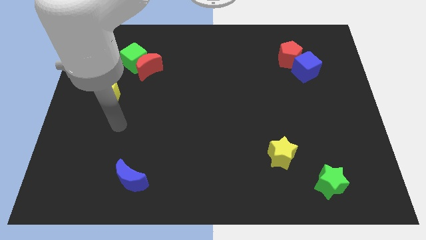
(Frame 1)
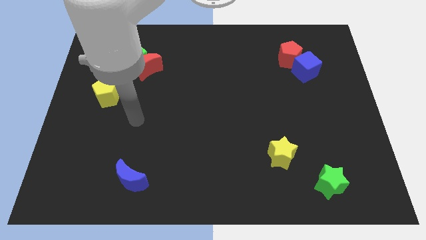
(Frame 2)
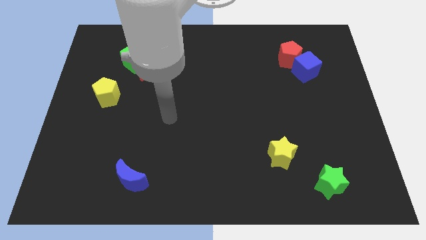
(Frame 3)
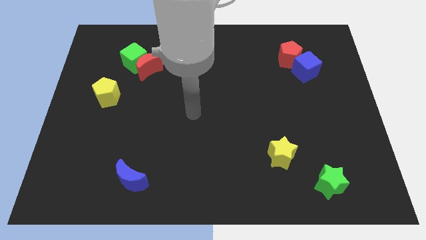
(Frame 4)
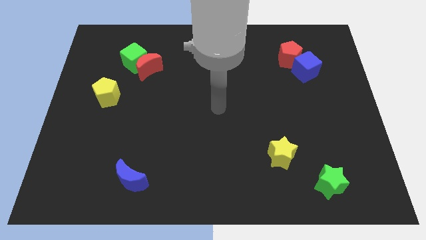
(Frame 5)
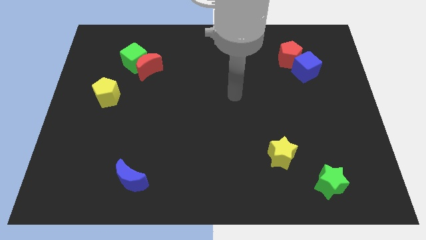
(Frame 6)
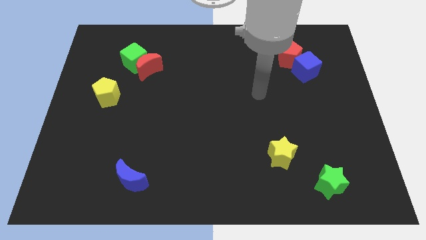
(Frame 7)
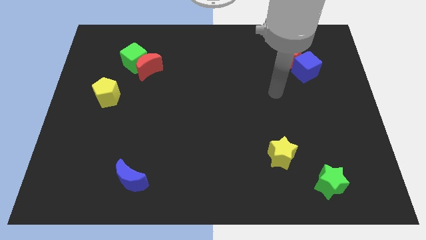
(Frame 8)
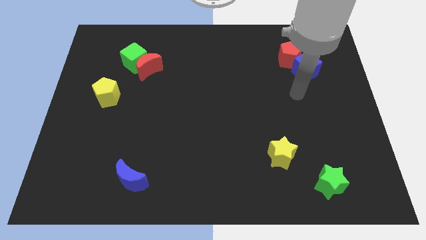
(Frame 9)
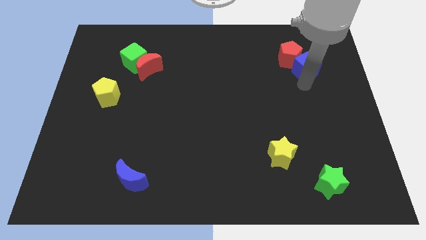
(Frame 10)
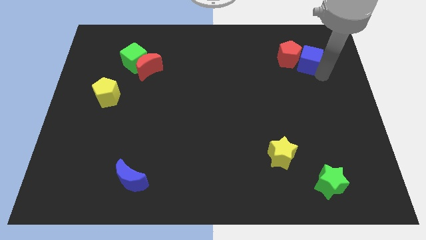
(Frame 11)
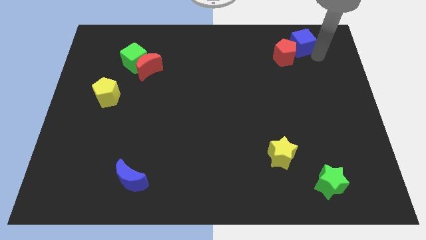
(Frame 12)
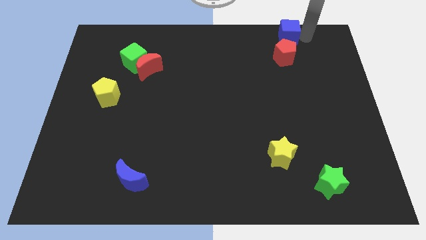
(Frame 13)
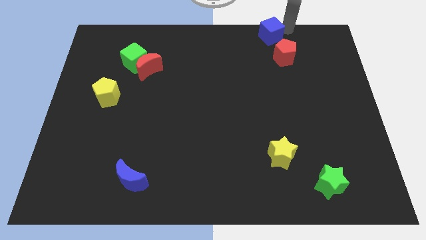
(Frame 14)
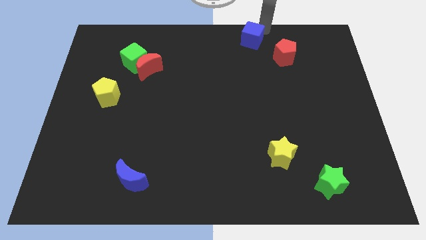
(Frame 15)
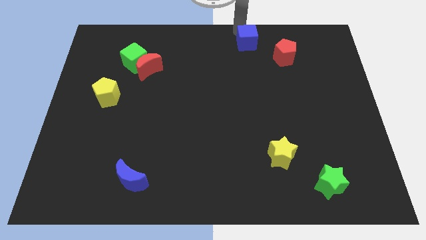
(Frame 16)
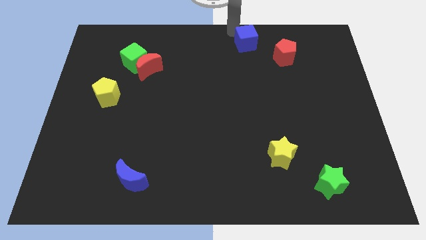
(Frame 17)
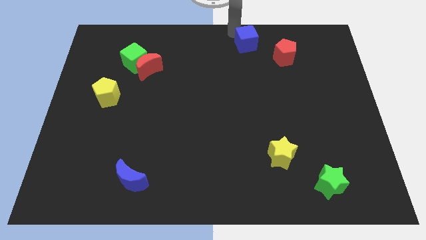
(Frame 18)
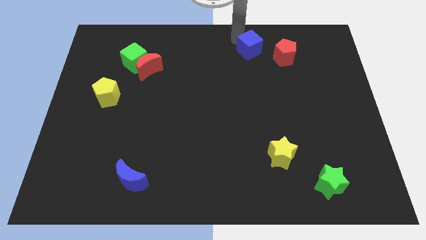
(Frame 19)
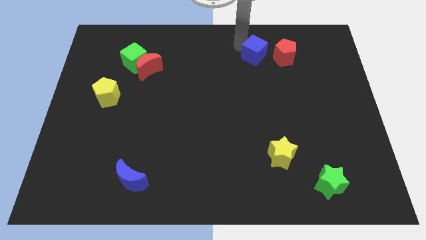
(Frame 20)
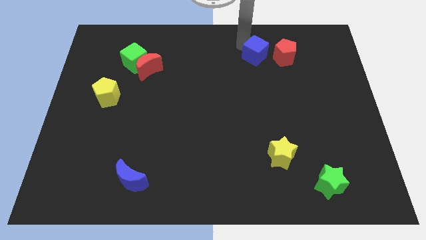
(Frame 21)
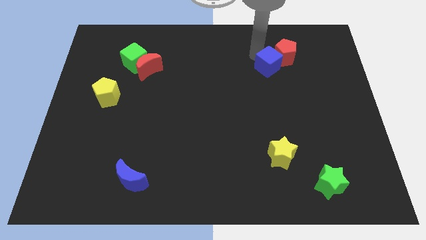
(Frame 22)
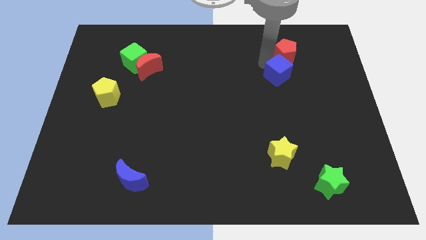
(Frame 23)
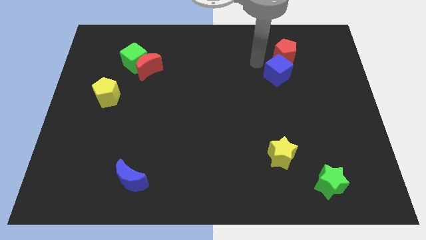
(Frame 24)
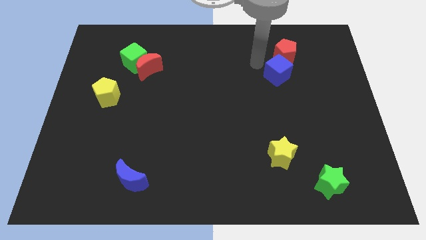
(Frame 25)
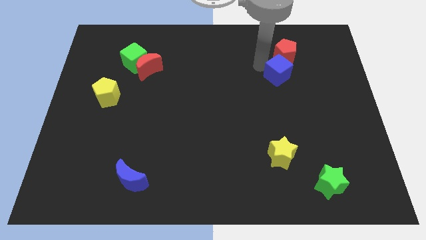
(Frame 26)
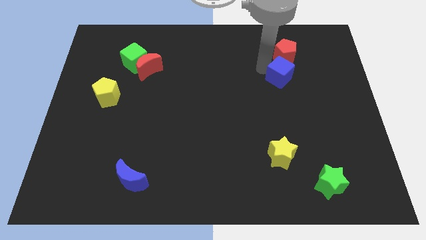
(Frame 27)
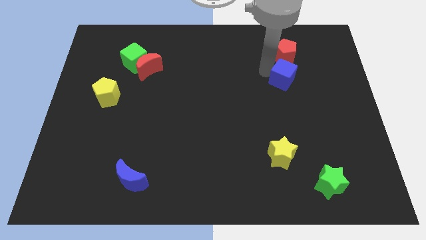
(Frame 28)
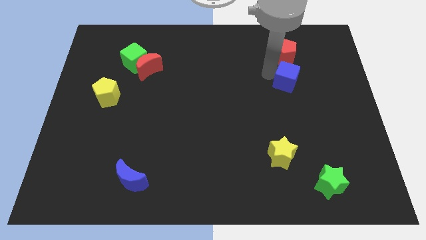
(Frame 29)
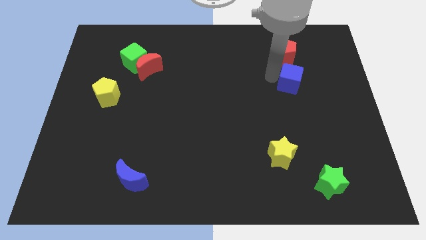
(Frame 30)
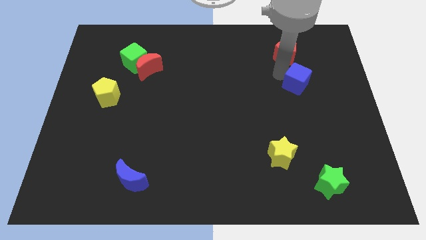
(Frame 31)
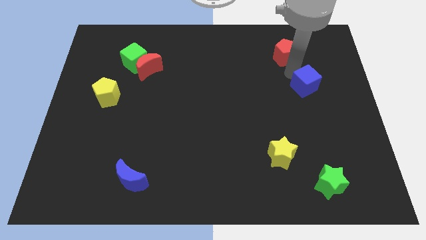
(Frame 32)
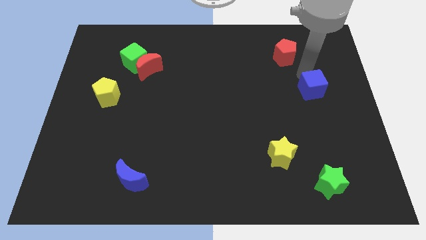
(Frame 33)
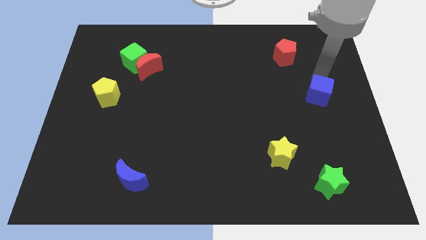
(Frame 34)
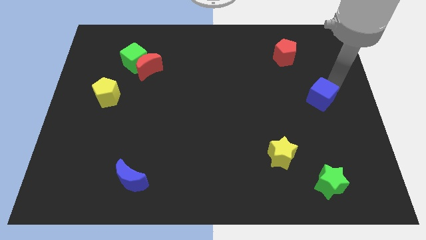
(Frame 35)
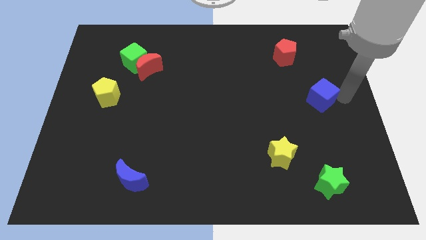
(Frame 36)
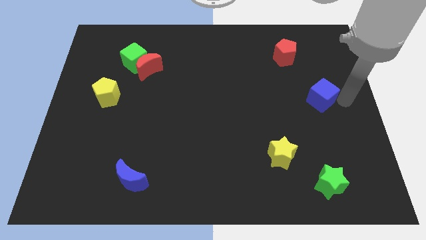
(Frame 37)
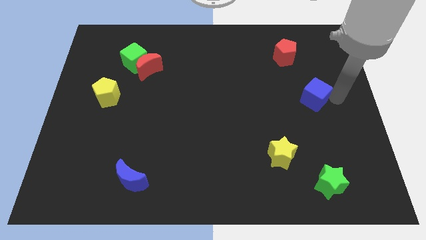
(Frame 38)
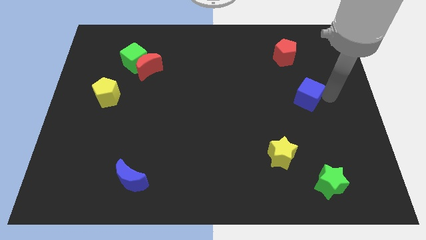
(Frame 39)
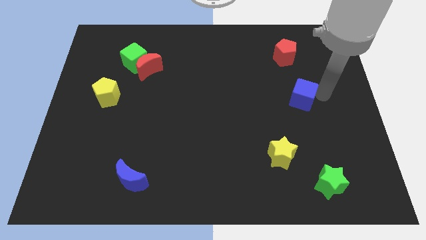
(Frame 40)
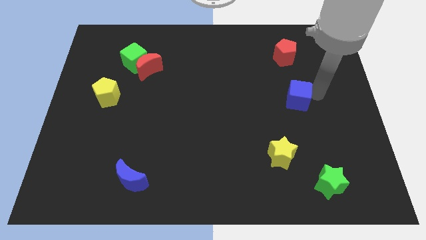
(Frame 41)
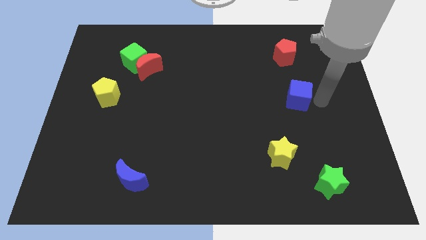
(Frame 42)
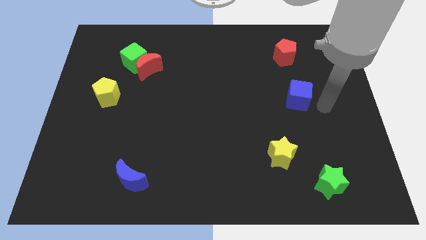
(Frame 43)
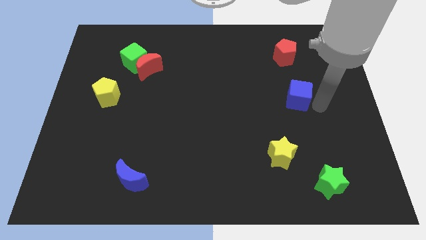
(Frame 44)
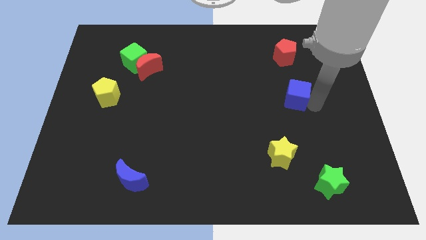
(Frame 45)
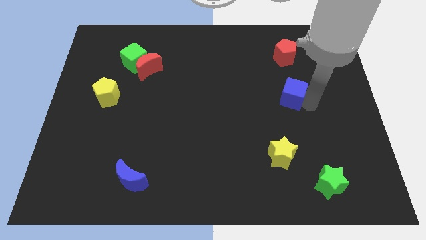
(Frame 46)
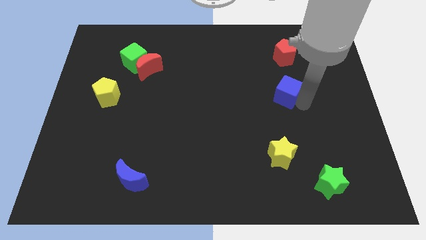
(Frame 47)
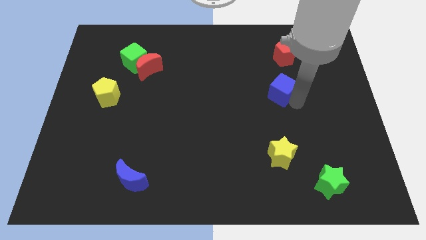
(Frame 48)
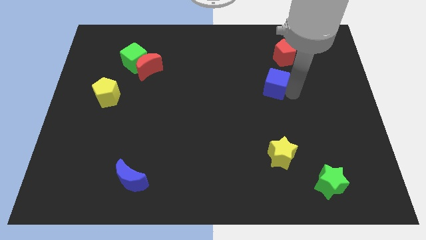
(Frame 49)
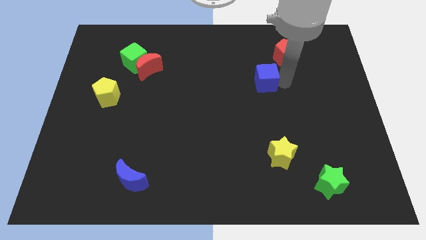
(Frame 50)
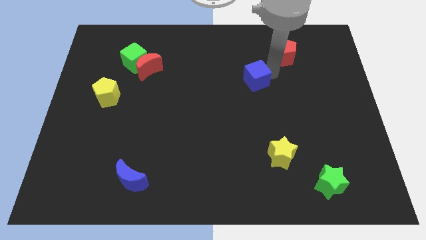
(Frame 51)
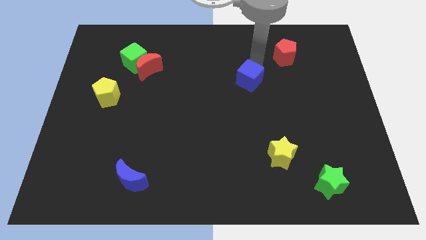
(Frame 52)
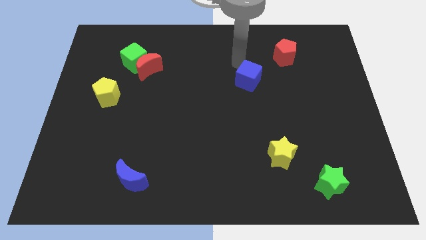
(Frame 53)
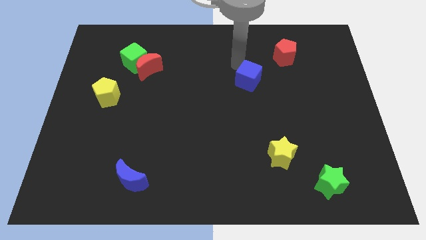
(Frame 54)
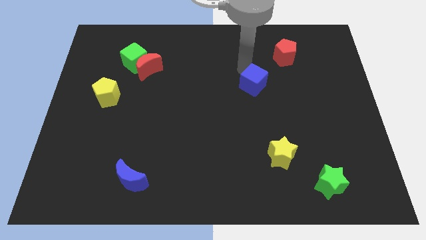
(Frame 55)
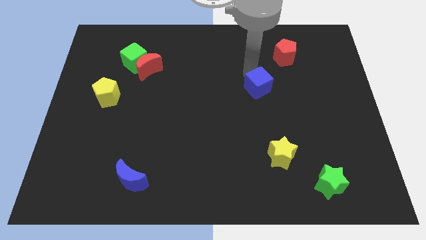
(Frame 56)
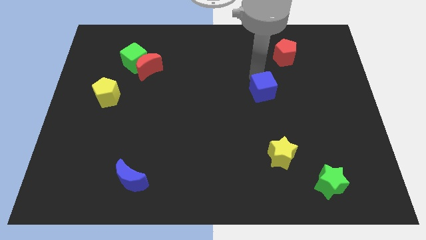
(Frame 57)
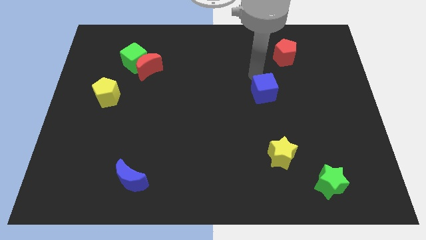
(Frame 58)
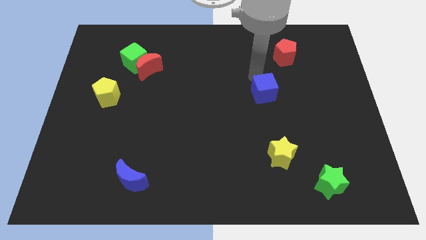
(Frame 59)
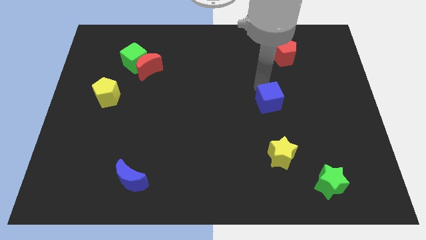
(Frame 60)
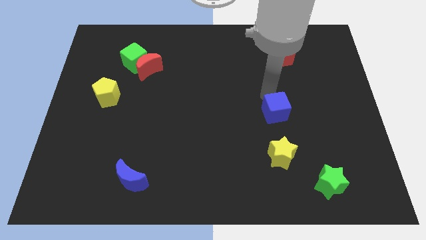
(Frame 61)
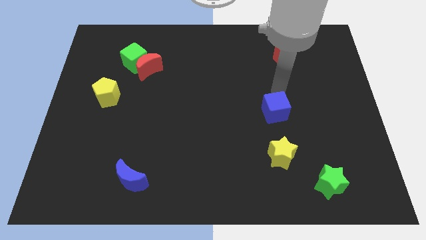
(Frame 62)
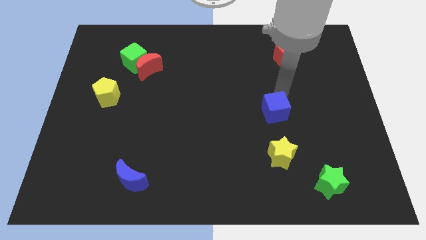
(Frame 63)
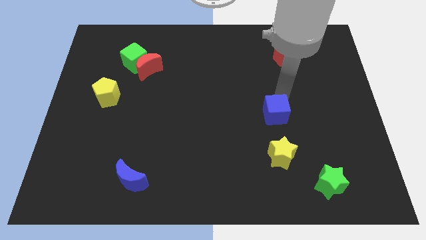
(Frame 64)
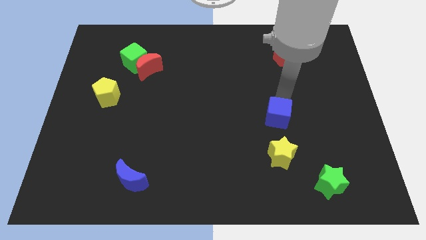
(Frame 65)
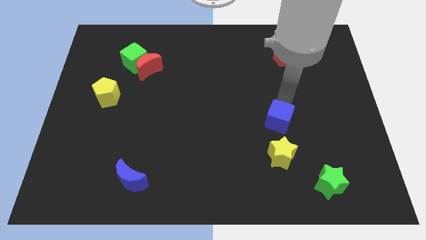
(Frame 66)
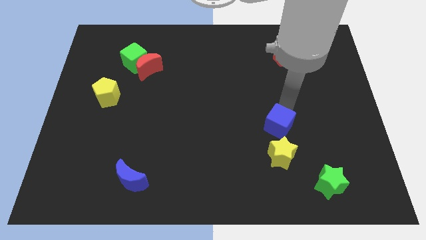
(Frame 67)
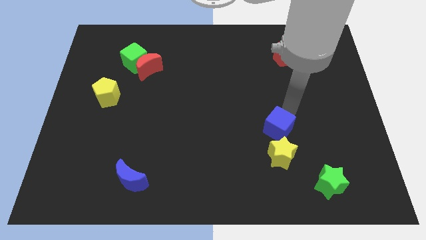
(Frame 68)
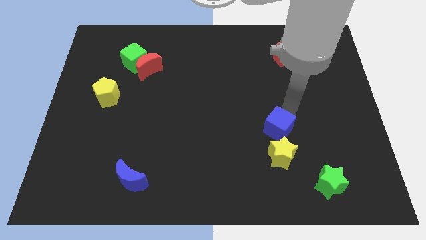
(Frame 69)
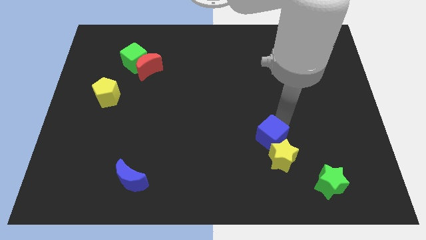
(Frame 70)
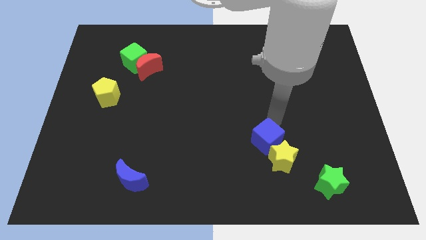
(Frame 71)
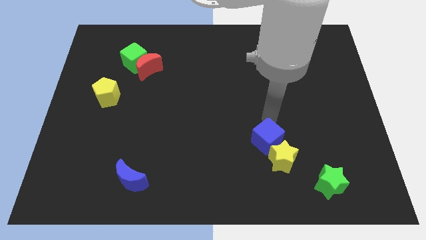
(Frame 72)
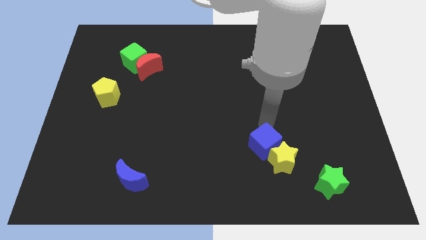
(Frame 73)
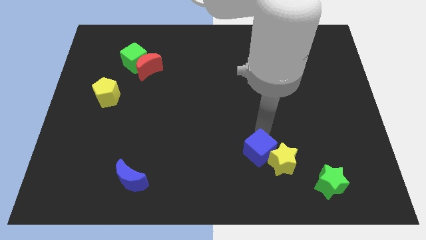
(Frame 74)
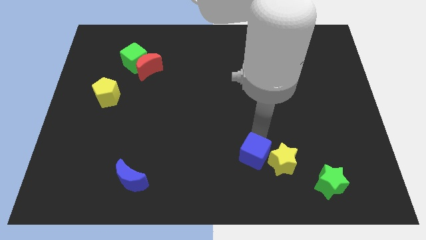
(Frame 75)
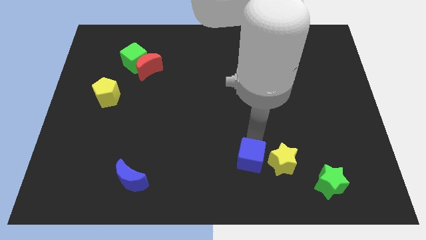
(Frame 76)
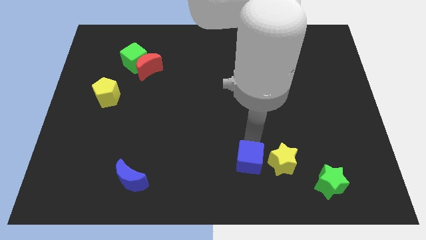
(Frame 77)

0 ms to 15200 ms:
put the blue cube to the bottom left of the yellow star

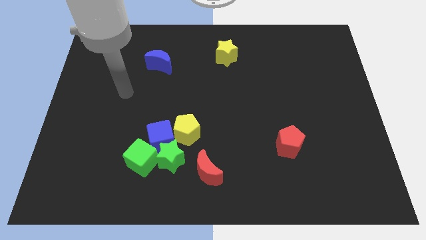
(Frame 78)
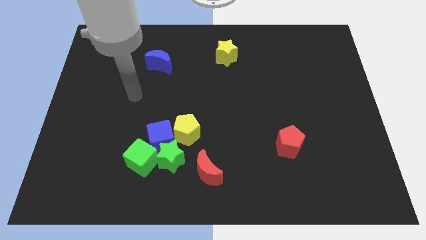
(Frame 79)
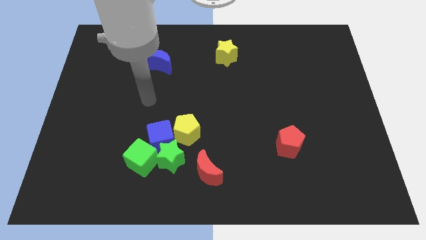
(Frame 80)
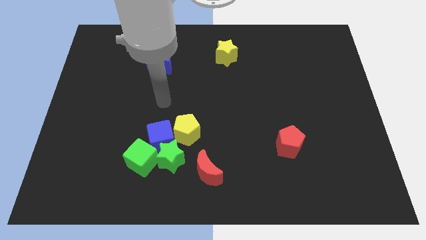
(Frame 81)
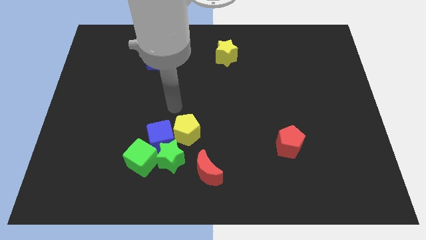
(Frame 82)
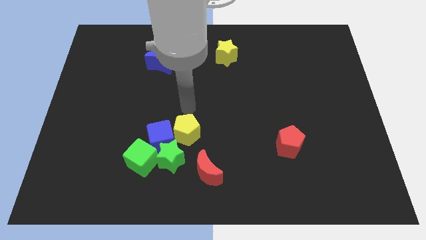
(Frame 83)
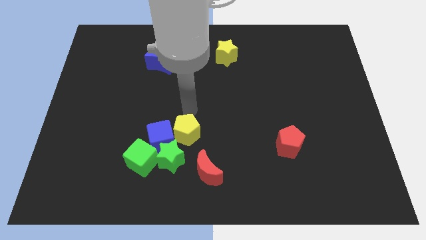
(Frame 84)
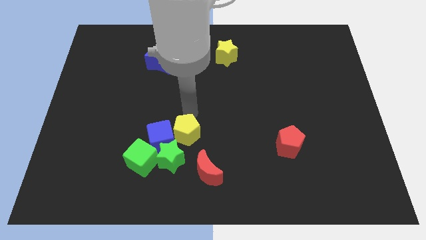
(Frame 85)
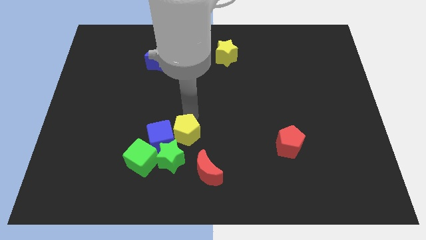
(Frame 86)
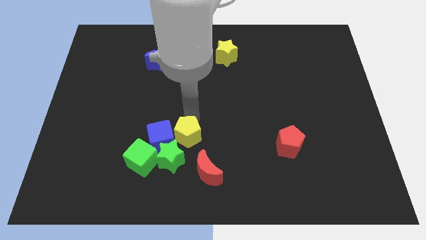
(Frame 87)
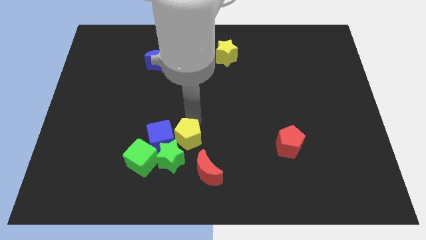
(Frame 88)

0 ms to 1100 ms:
put the yellow pentagon diagonally down and to the right of the blue cube
